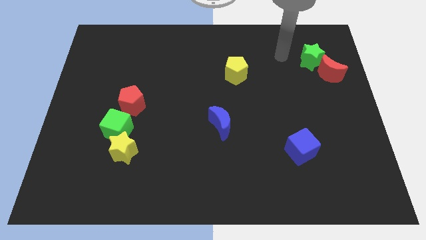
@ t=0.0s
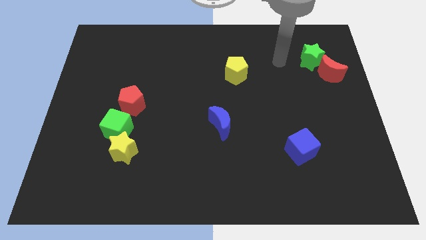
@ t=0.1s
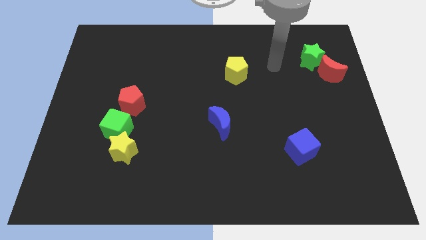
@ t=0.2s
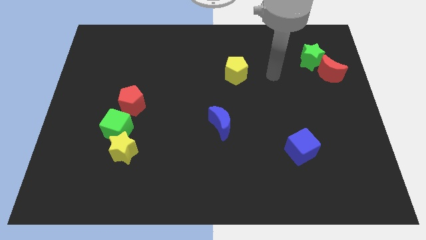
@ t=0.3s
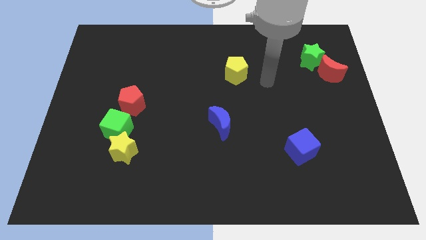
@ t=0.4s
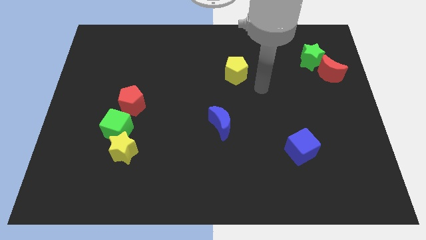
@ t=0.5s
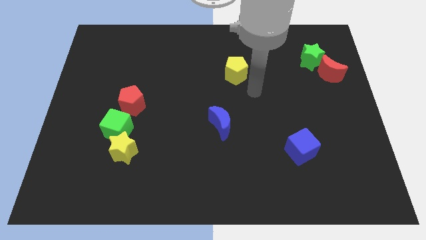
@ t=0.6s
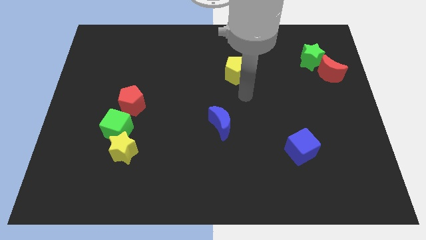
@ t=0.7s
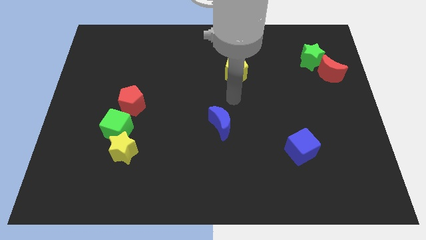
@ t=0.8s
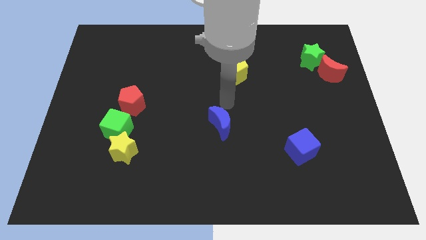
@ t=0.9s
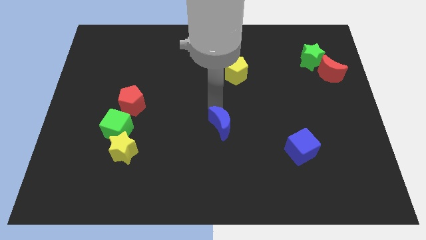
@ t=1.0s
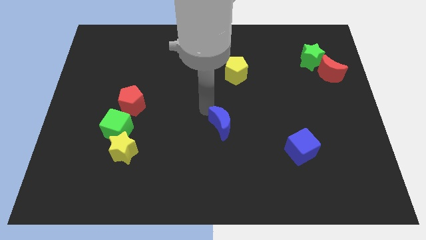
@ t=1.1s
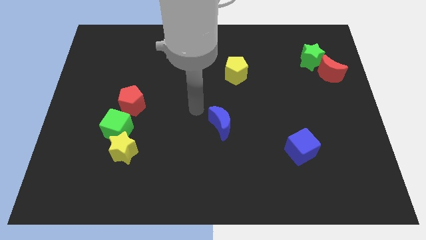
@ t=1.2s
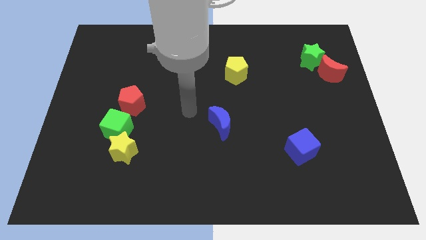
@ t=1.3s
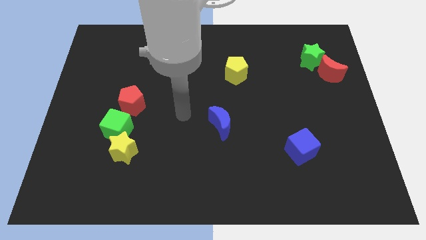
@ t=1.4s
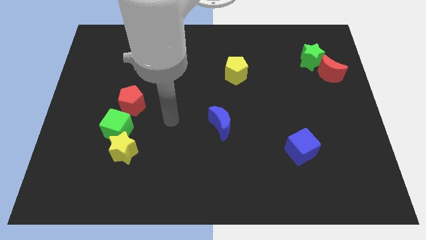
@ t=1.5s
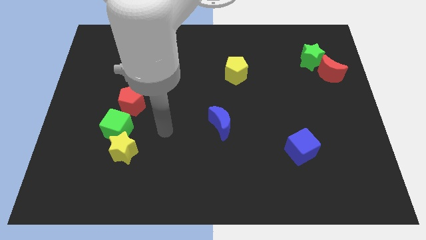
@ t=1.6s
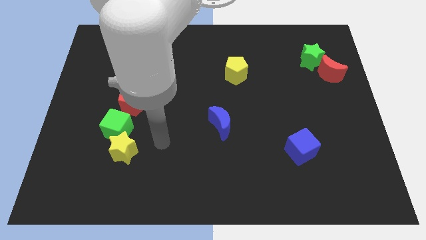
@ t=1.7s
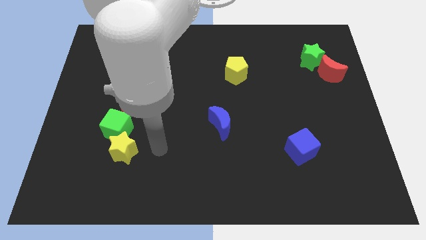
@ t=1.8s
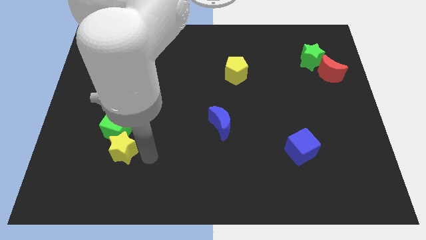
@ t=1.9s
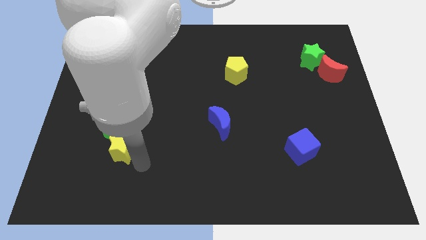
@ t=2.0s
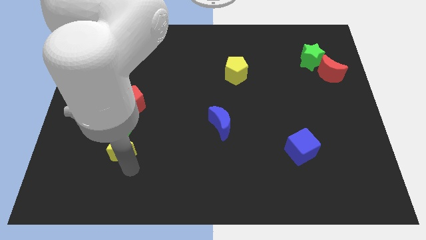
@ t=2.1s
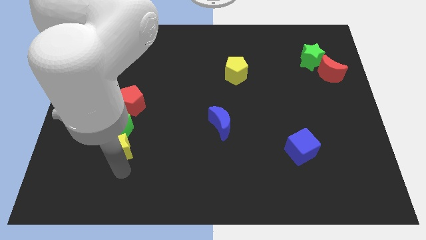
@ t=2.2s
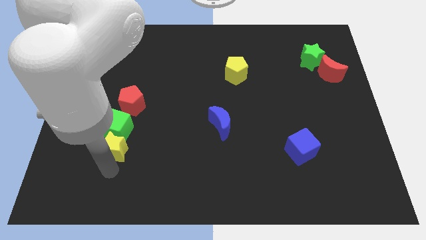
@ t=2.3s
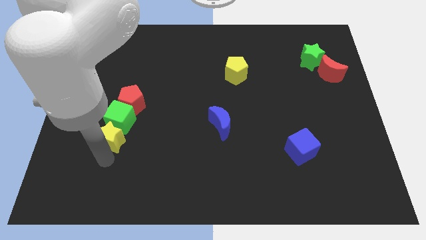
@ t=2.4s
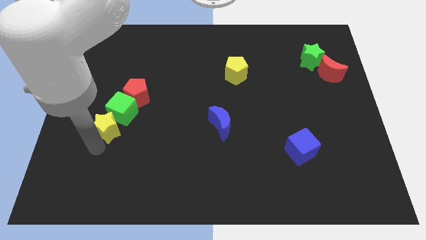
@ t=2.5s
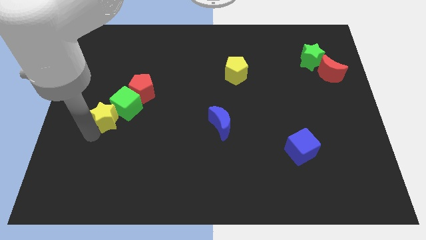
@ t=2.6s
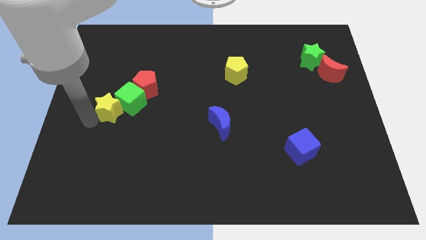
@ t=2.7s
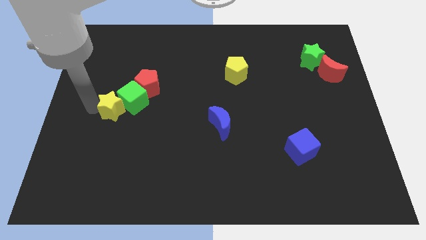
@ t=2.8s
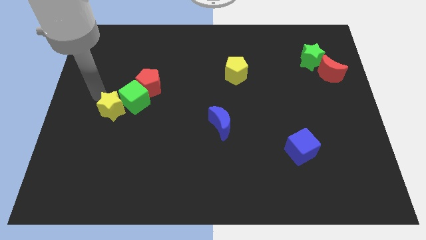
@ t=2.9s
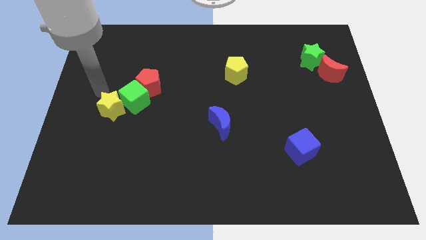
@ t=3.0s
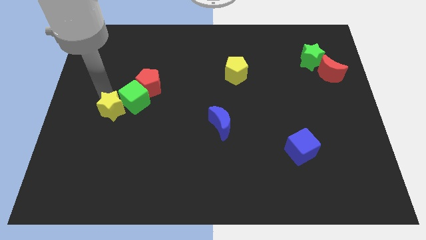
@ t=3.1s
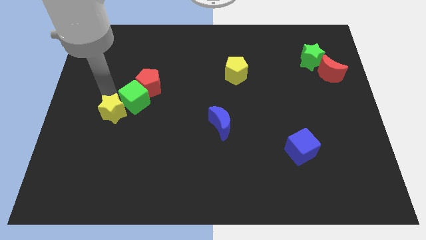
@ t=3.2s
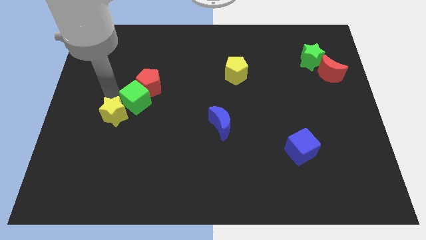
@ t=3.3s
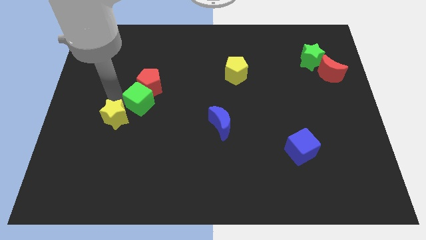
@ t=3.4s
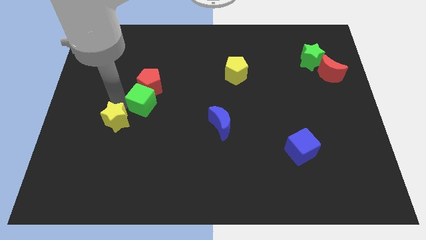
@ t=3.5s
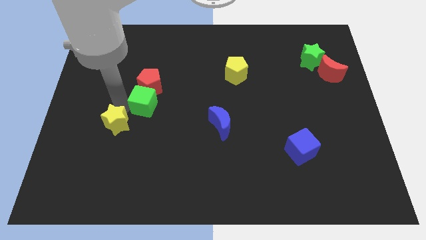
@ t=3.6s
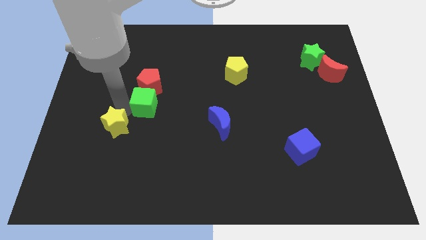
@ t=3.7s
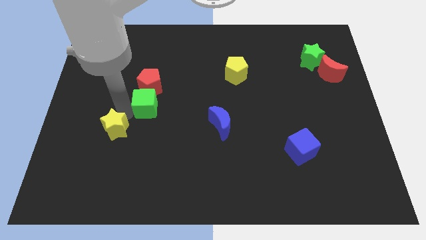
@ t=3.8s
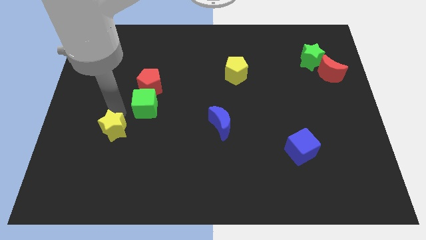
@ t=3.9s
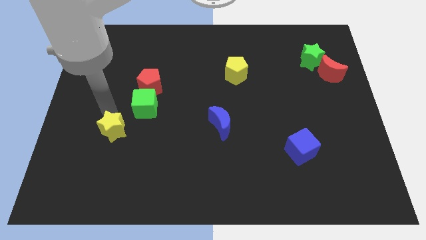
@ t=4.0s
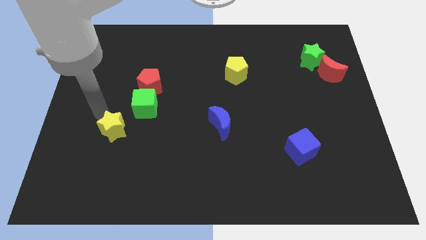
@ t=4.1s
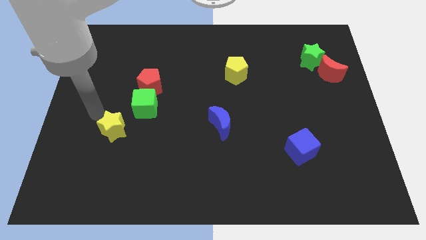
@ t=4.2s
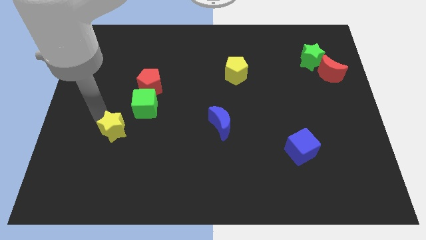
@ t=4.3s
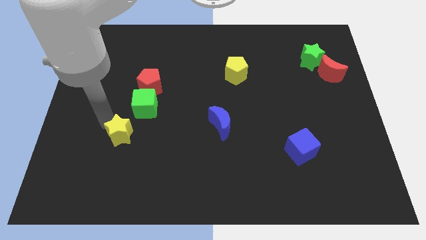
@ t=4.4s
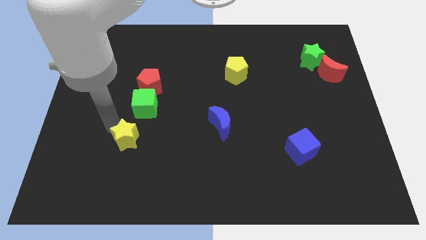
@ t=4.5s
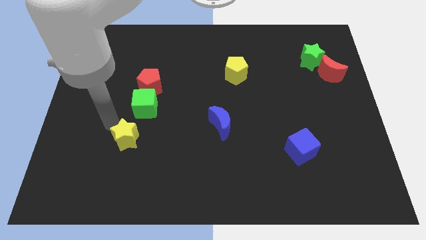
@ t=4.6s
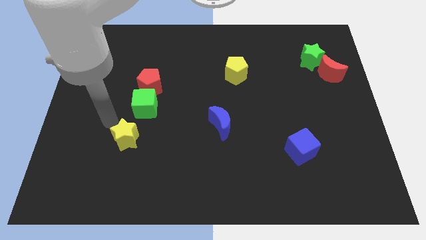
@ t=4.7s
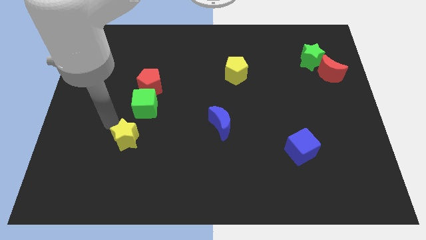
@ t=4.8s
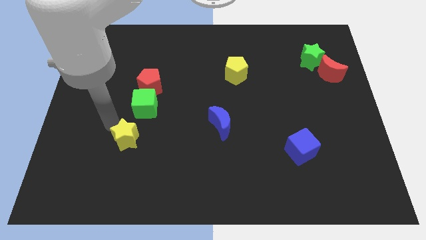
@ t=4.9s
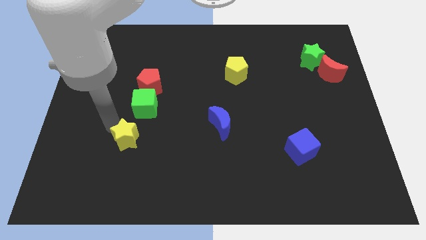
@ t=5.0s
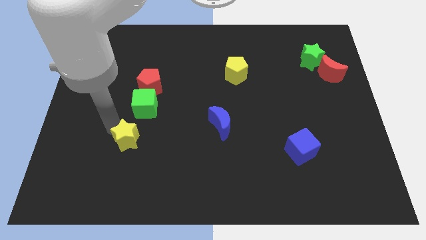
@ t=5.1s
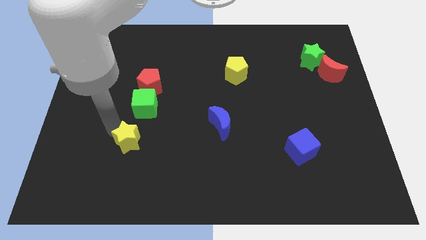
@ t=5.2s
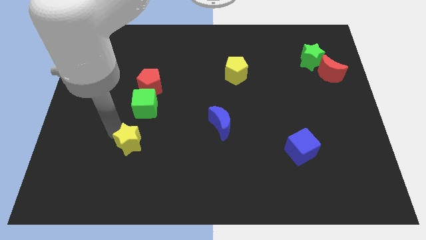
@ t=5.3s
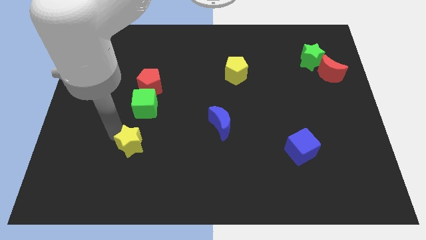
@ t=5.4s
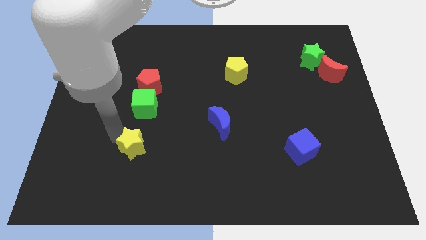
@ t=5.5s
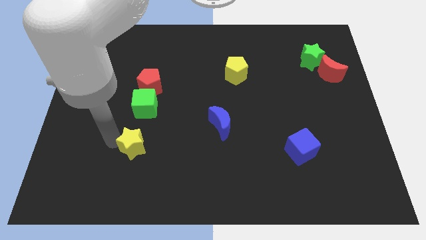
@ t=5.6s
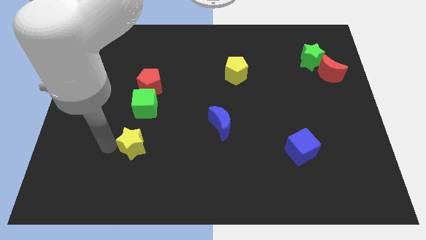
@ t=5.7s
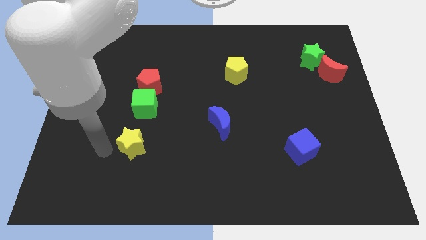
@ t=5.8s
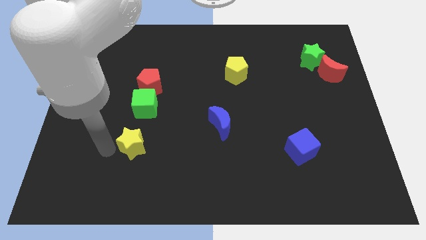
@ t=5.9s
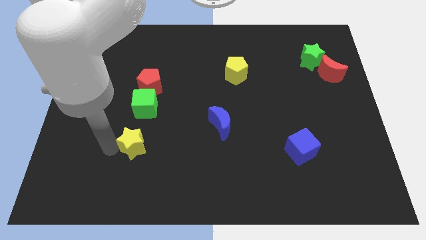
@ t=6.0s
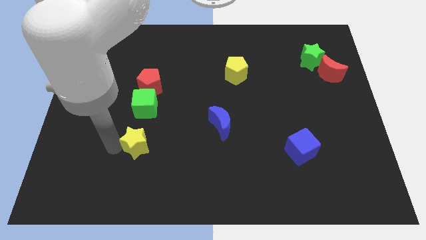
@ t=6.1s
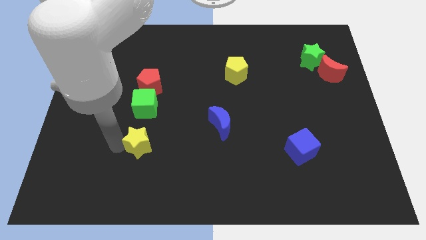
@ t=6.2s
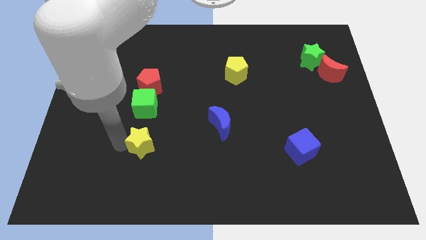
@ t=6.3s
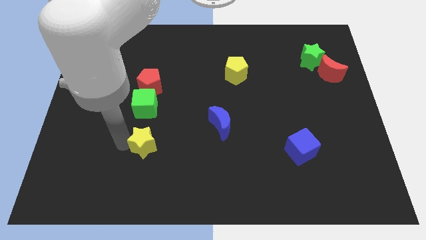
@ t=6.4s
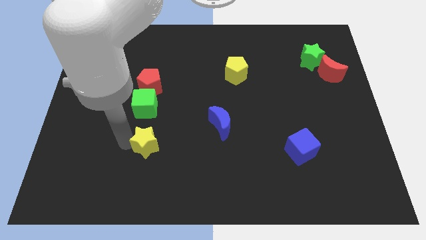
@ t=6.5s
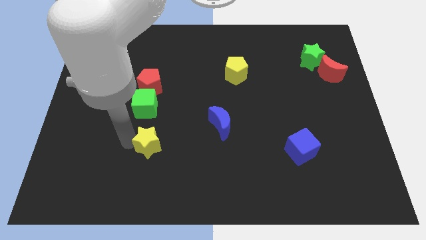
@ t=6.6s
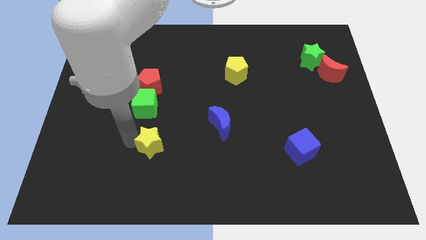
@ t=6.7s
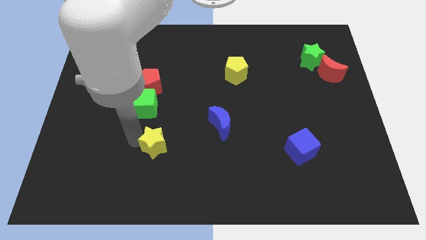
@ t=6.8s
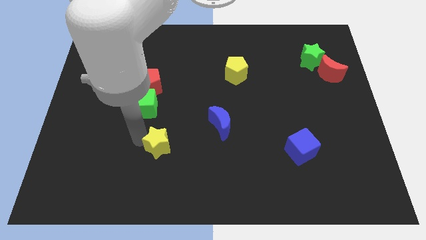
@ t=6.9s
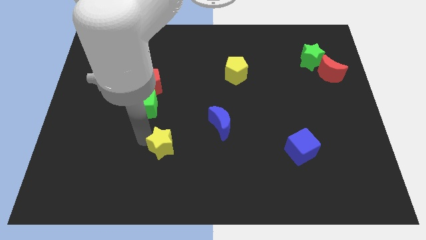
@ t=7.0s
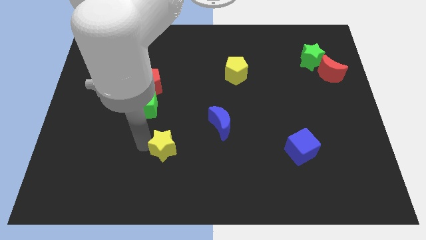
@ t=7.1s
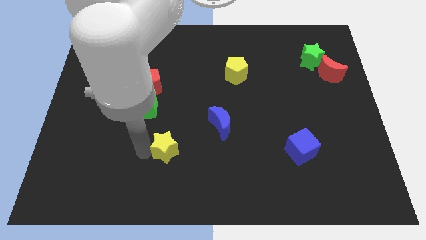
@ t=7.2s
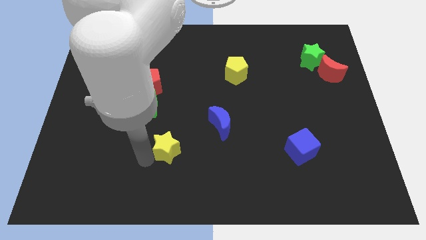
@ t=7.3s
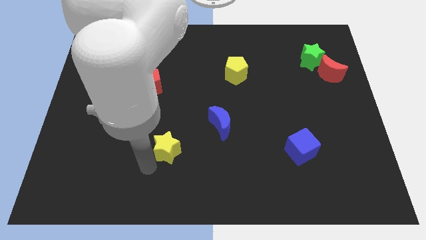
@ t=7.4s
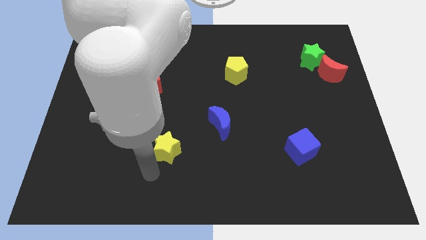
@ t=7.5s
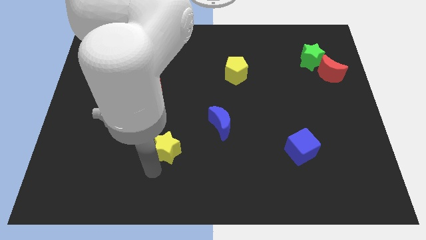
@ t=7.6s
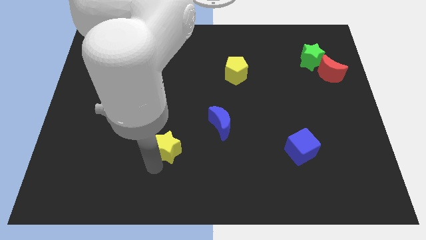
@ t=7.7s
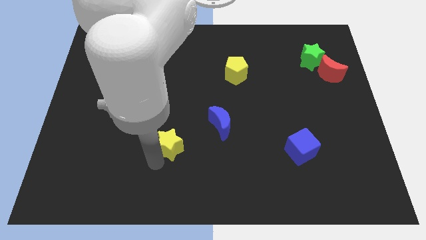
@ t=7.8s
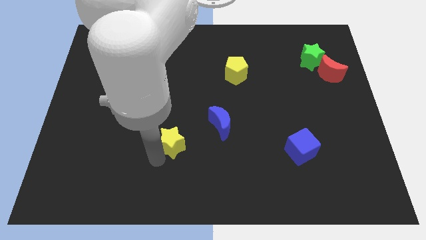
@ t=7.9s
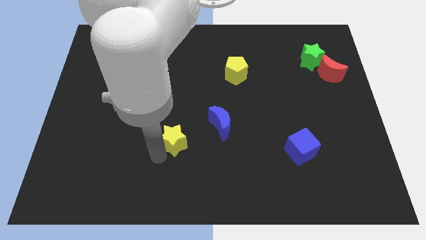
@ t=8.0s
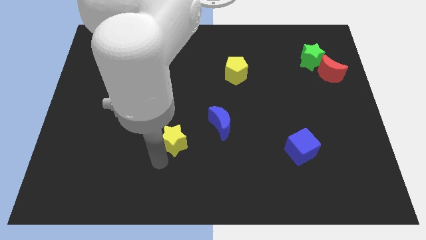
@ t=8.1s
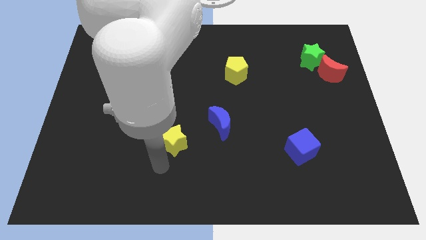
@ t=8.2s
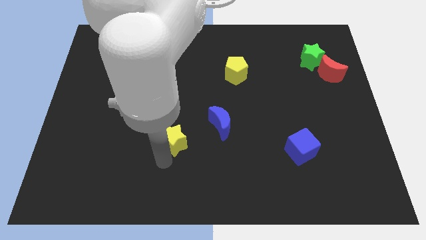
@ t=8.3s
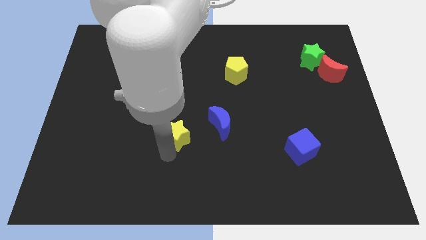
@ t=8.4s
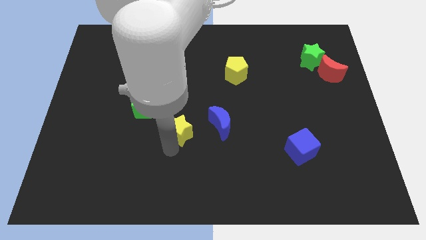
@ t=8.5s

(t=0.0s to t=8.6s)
put the yellow star to the middle
